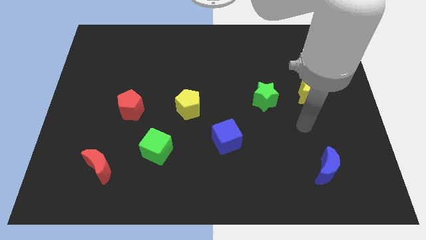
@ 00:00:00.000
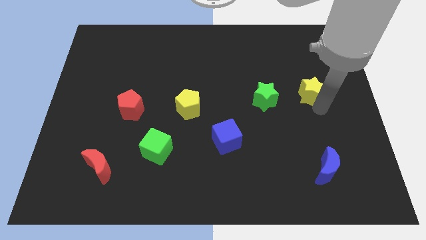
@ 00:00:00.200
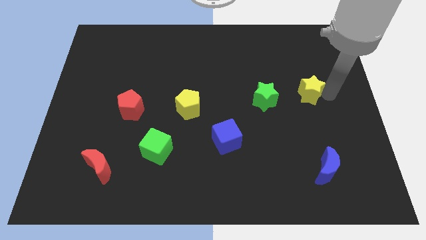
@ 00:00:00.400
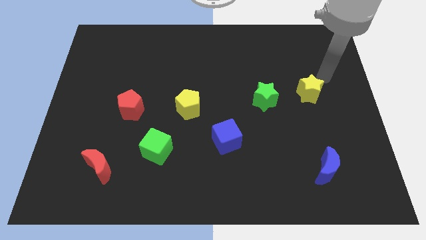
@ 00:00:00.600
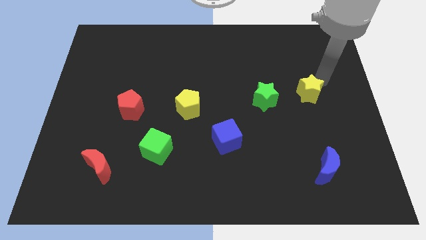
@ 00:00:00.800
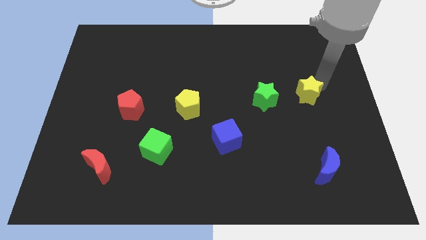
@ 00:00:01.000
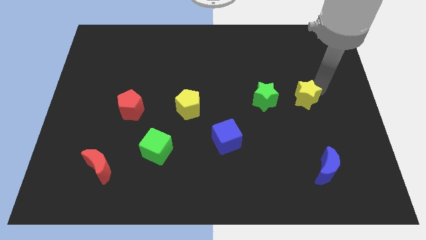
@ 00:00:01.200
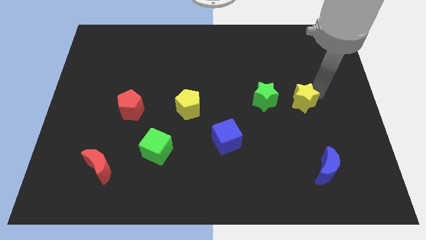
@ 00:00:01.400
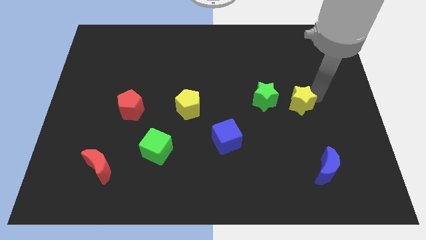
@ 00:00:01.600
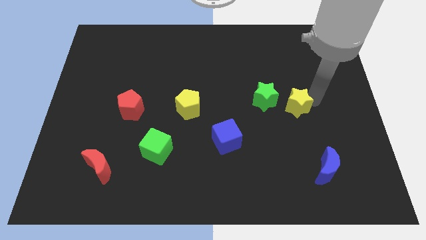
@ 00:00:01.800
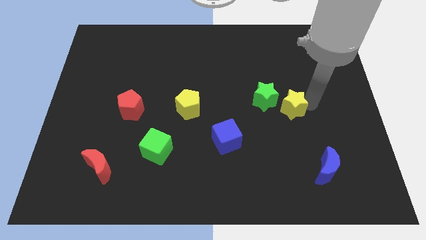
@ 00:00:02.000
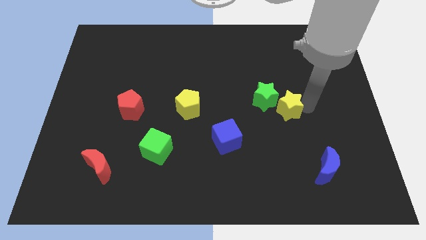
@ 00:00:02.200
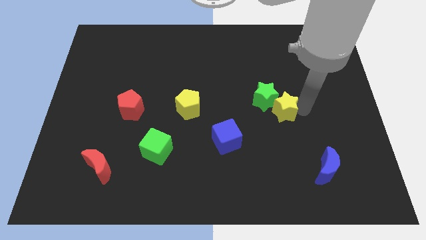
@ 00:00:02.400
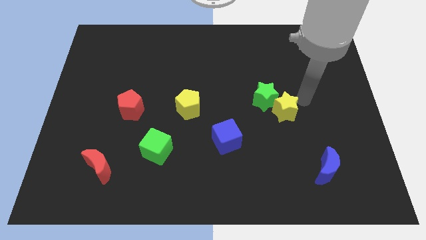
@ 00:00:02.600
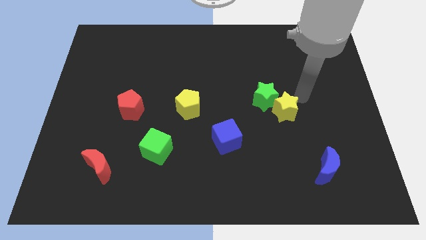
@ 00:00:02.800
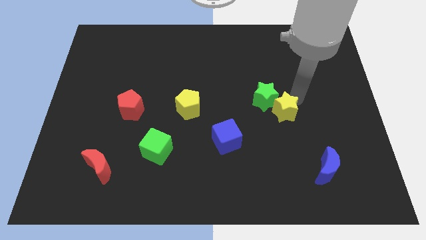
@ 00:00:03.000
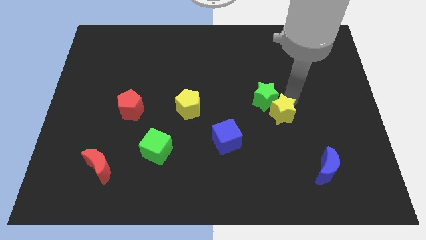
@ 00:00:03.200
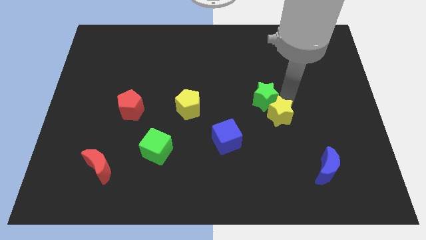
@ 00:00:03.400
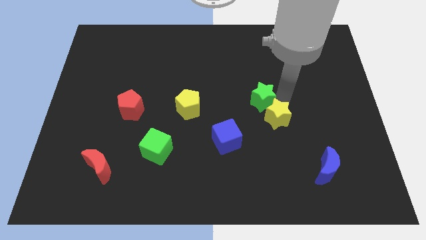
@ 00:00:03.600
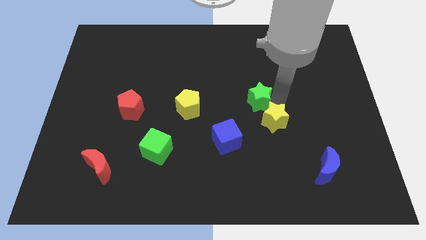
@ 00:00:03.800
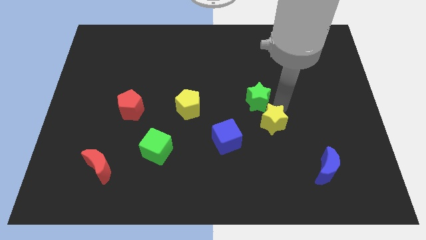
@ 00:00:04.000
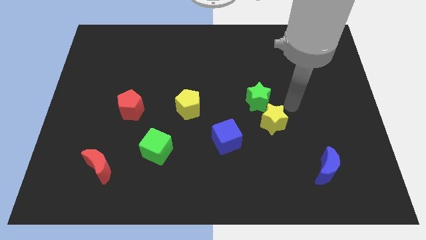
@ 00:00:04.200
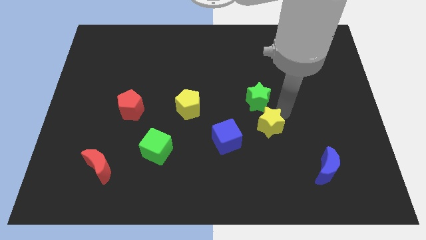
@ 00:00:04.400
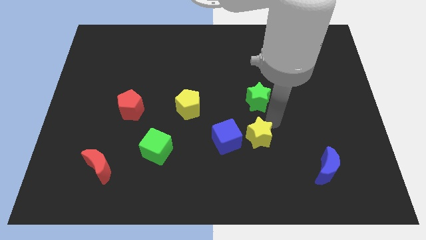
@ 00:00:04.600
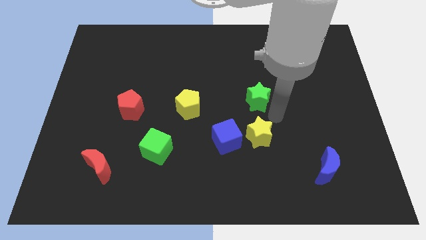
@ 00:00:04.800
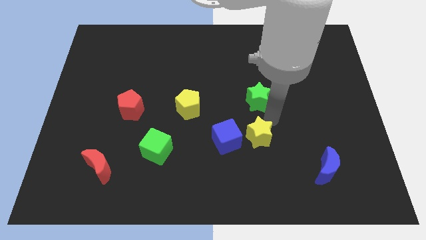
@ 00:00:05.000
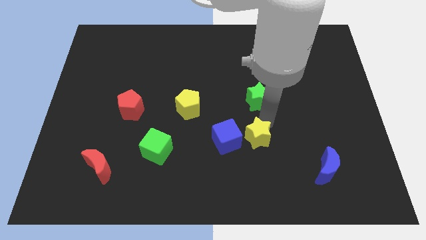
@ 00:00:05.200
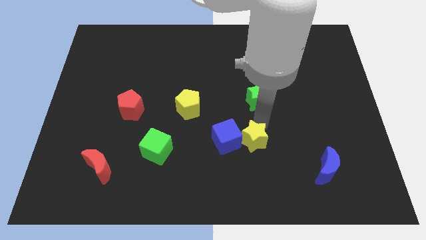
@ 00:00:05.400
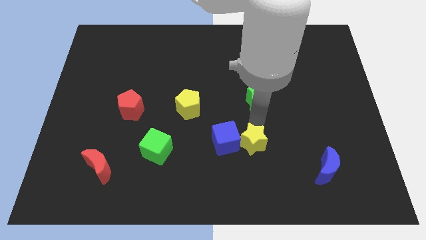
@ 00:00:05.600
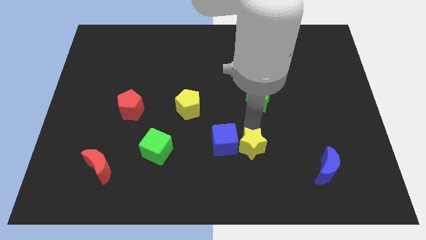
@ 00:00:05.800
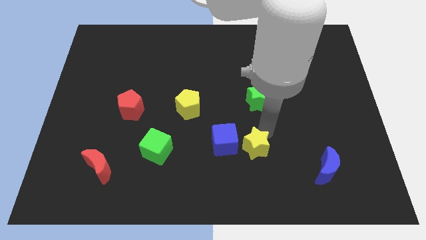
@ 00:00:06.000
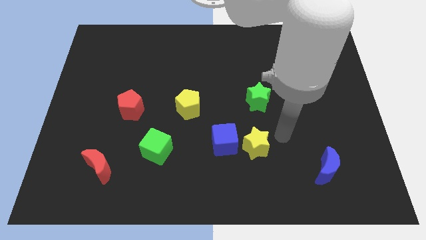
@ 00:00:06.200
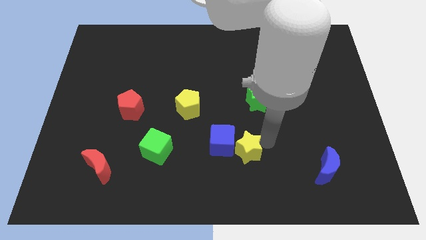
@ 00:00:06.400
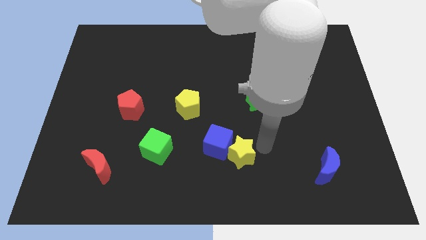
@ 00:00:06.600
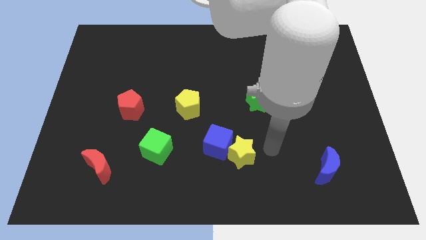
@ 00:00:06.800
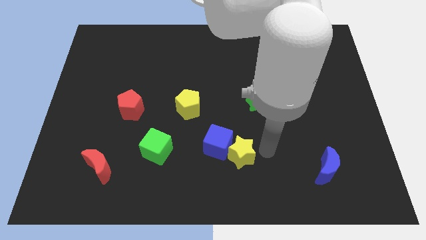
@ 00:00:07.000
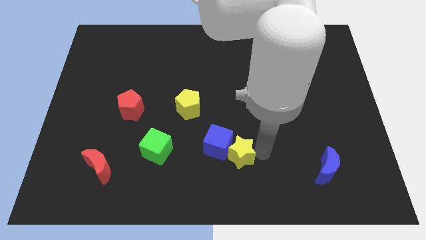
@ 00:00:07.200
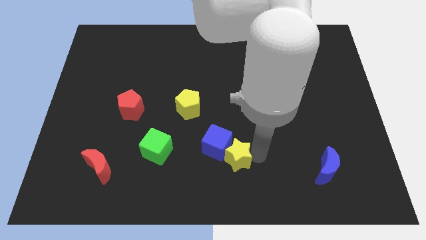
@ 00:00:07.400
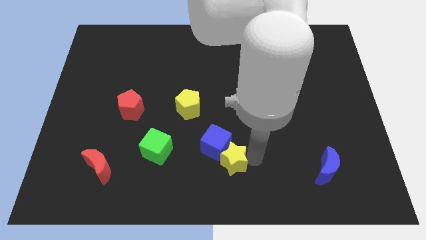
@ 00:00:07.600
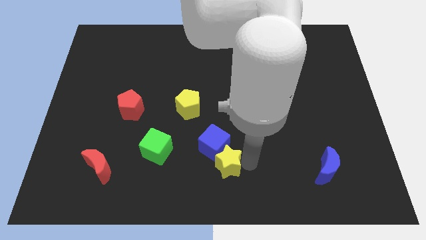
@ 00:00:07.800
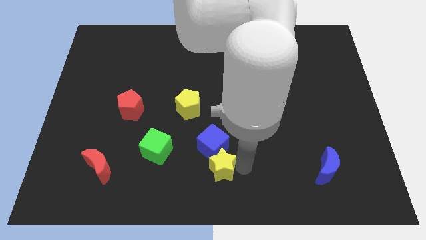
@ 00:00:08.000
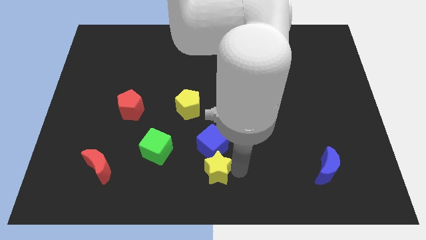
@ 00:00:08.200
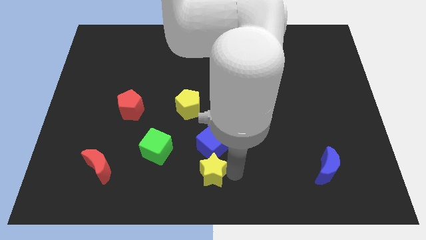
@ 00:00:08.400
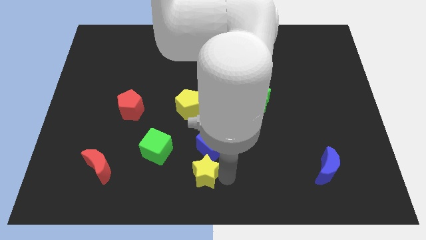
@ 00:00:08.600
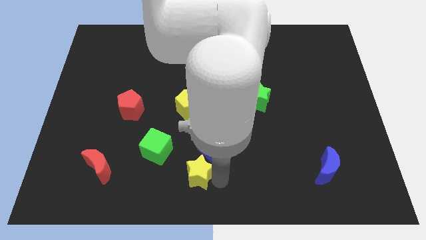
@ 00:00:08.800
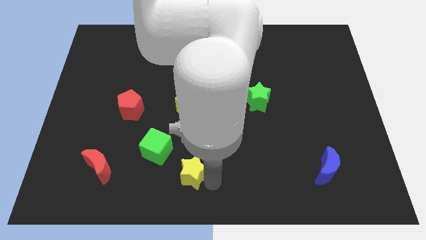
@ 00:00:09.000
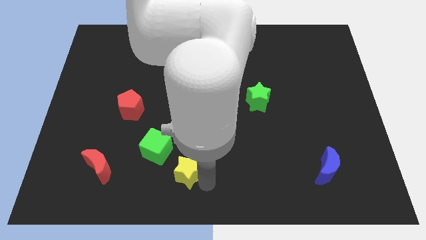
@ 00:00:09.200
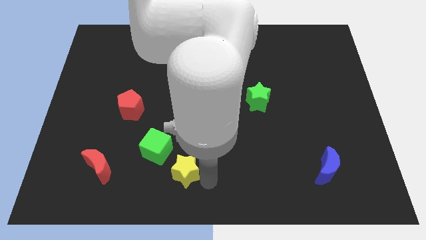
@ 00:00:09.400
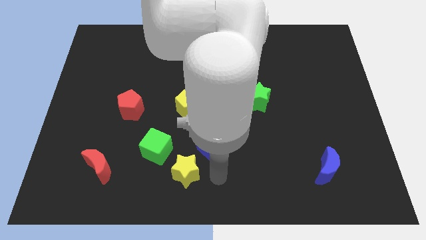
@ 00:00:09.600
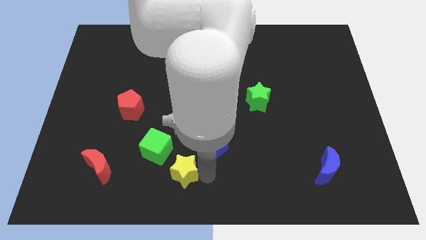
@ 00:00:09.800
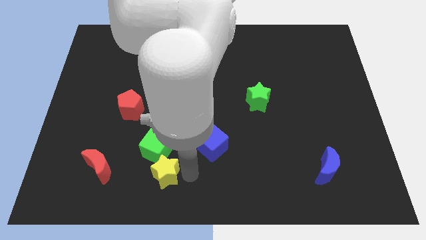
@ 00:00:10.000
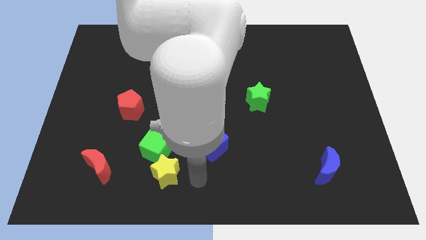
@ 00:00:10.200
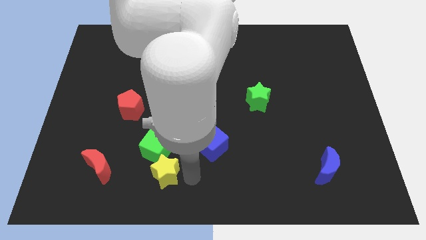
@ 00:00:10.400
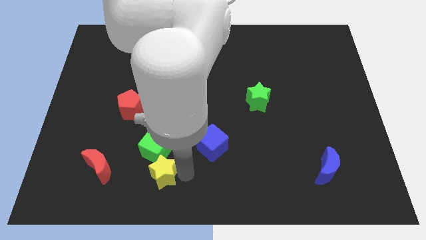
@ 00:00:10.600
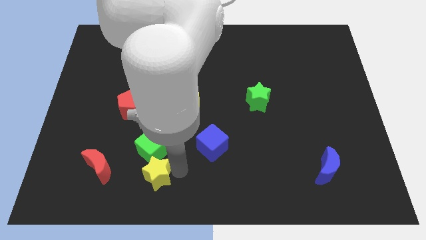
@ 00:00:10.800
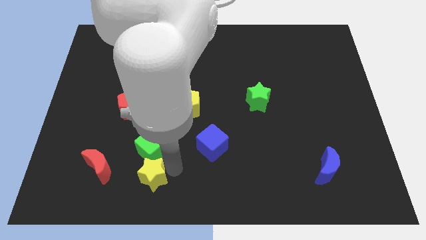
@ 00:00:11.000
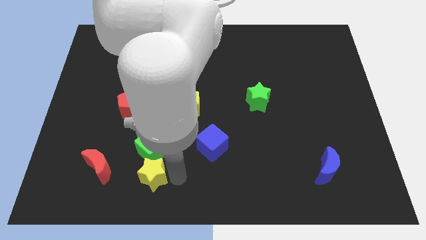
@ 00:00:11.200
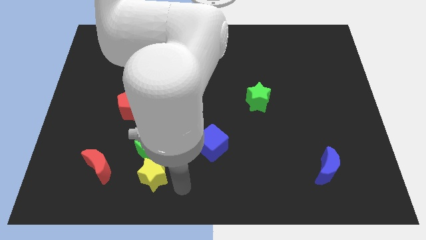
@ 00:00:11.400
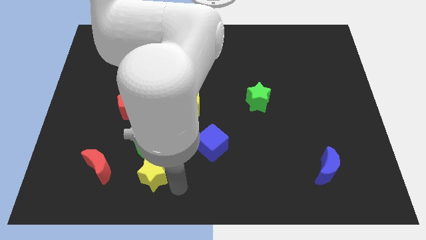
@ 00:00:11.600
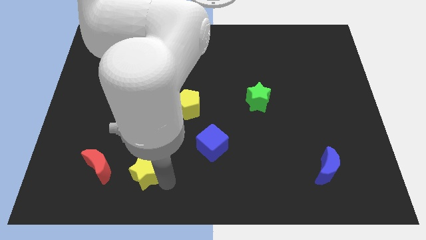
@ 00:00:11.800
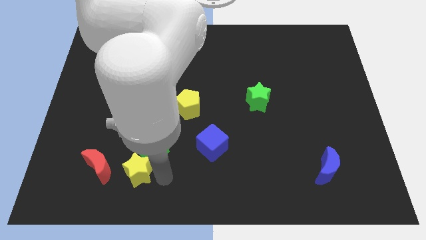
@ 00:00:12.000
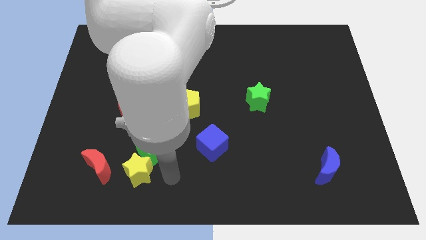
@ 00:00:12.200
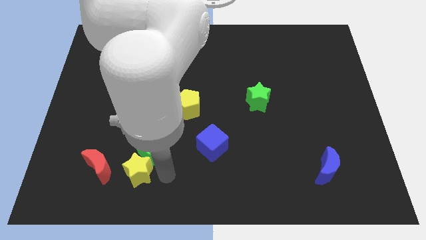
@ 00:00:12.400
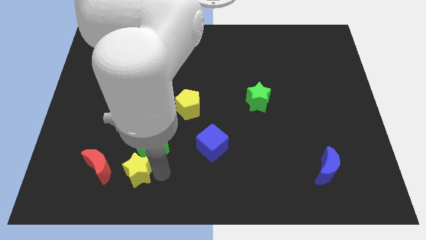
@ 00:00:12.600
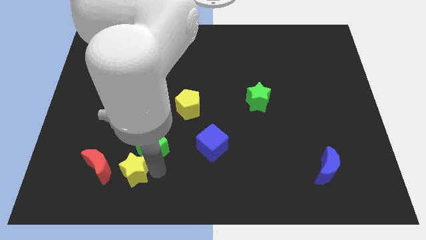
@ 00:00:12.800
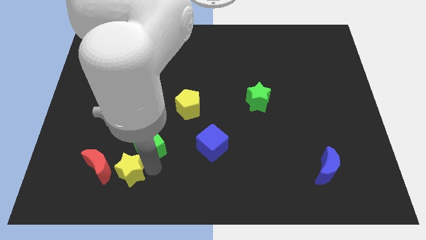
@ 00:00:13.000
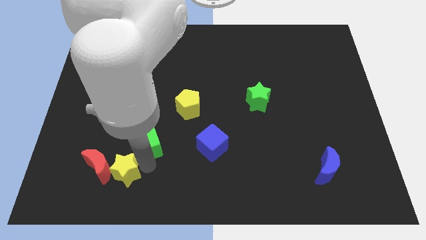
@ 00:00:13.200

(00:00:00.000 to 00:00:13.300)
slide the yellow star to the red moon
